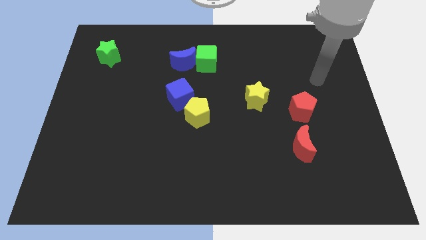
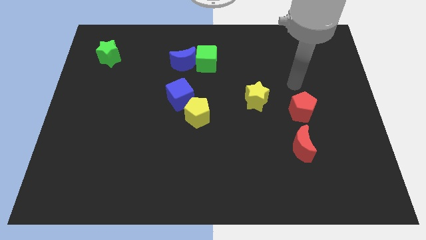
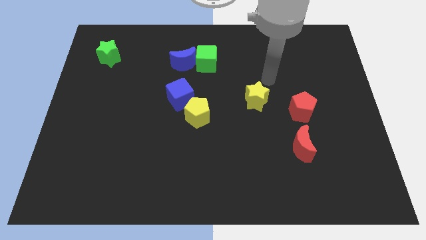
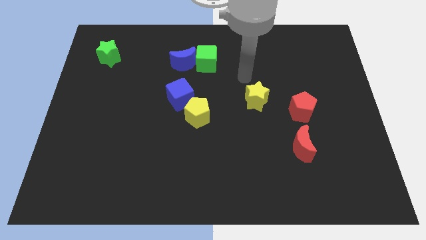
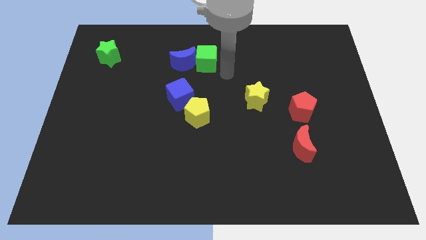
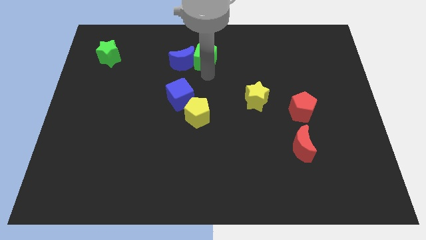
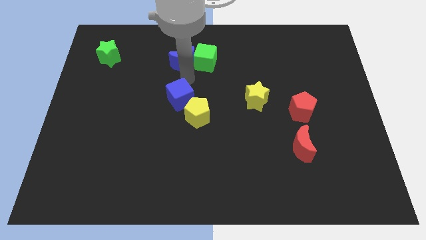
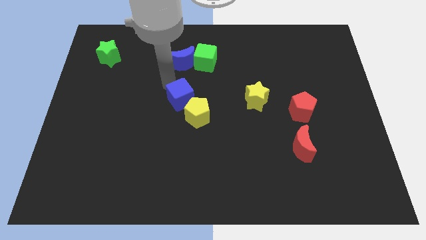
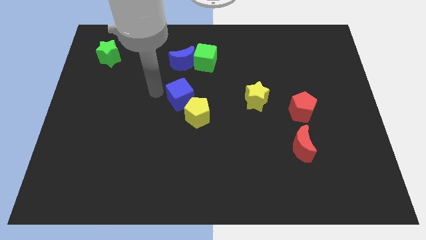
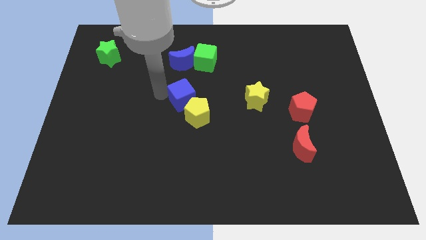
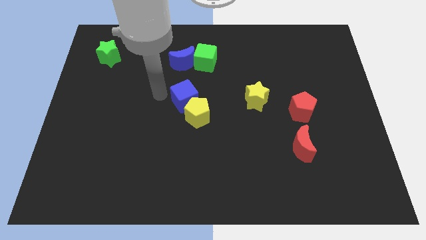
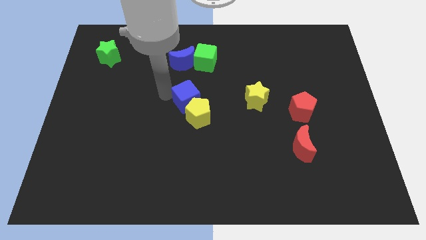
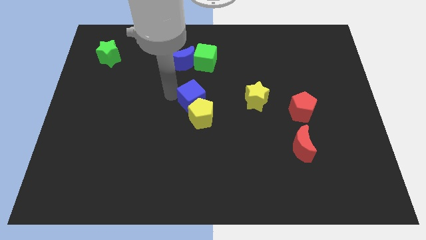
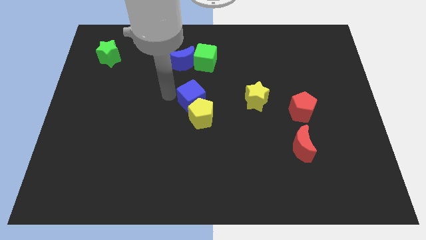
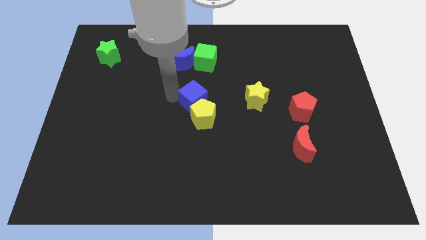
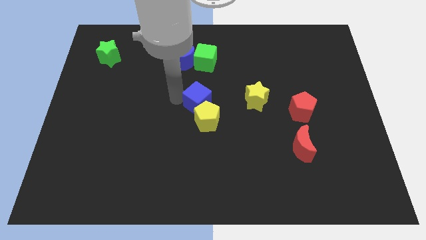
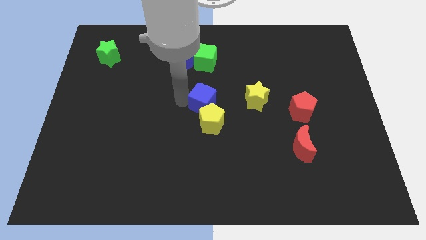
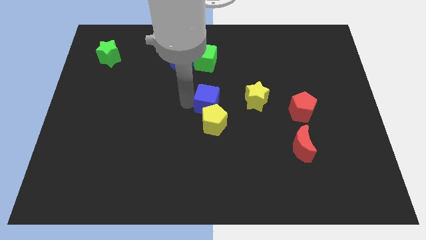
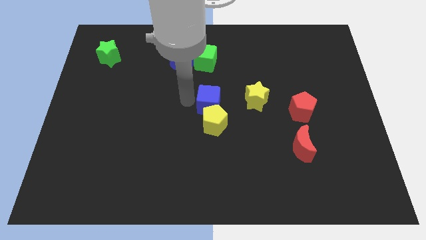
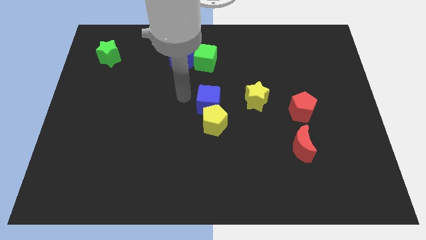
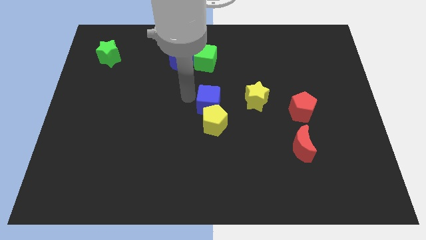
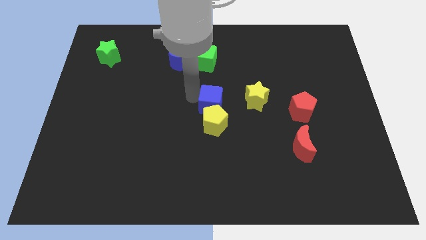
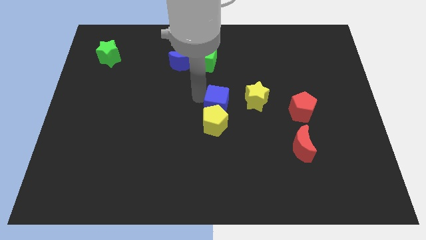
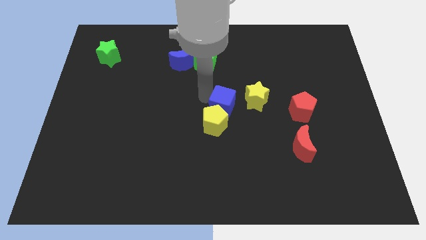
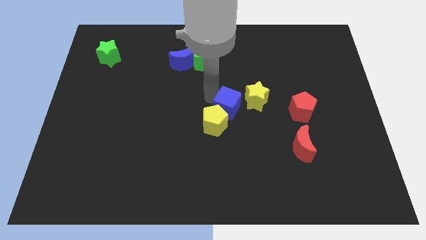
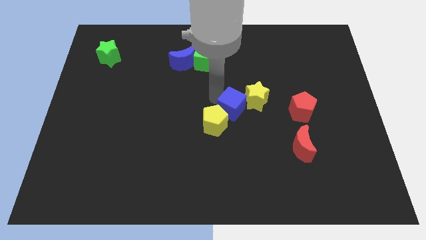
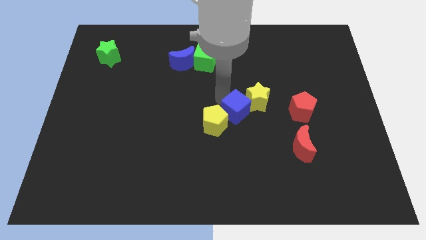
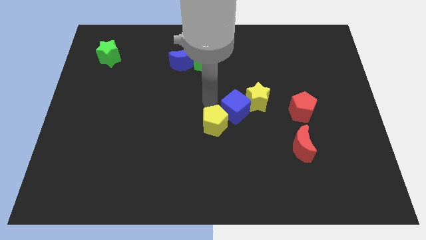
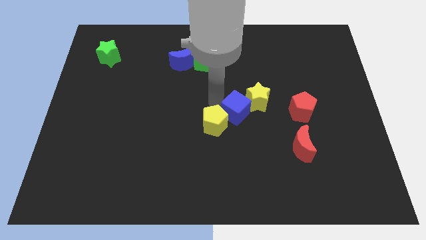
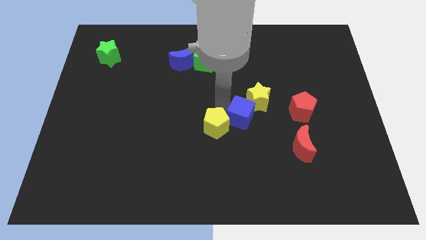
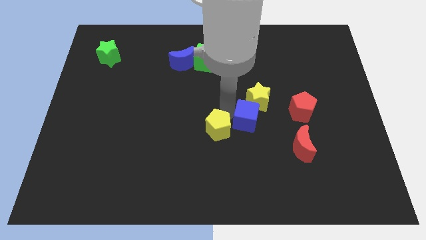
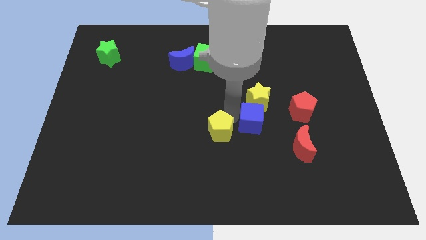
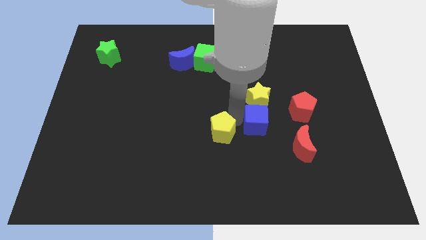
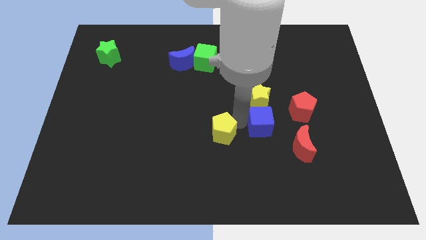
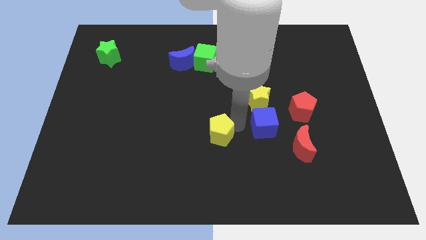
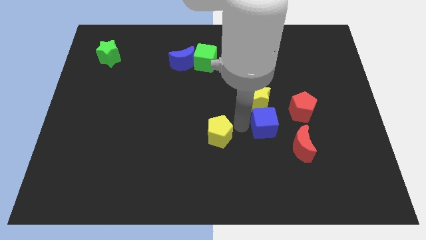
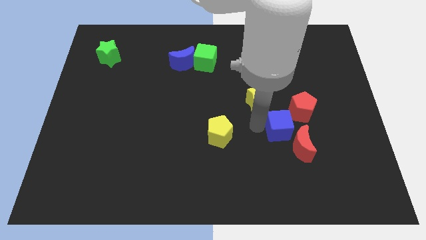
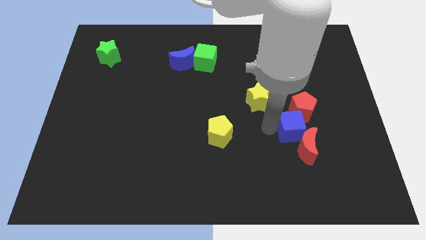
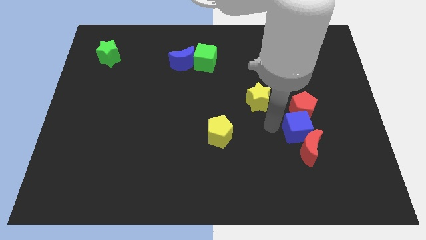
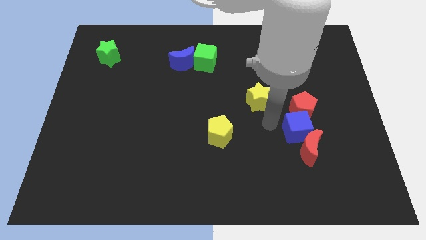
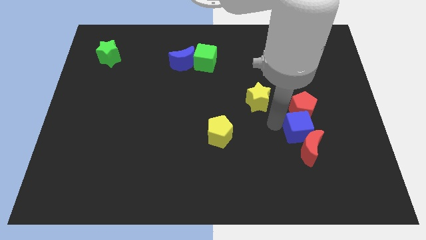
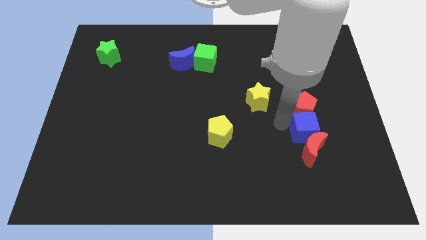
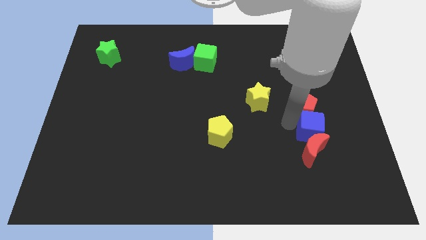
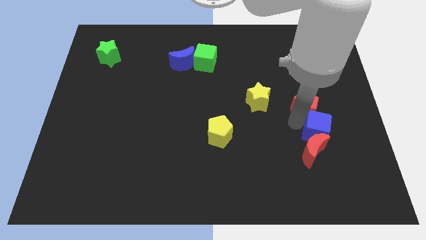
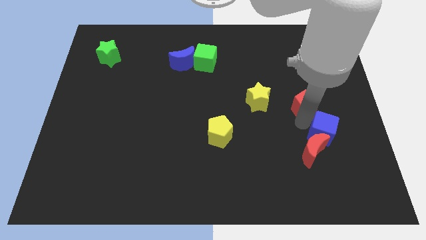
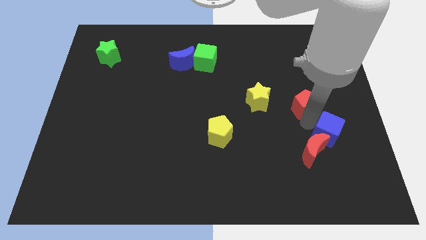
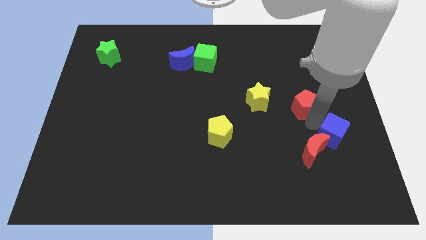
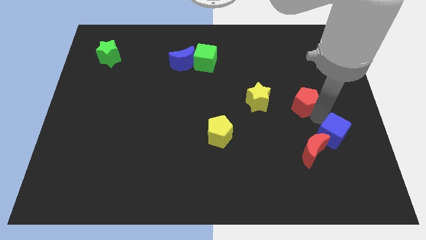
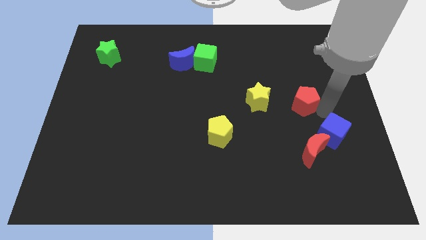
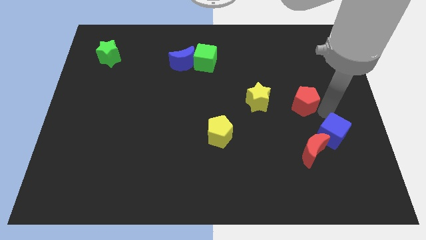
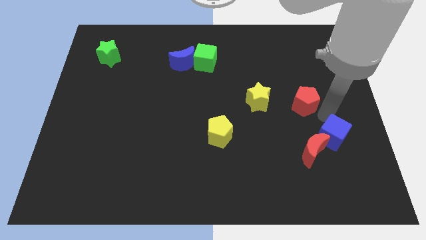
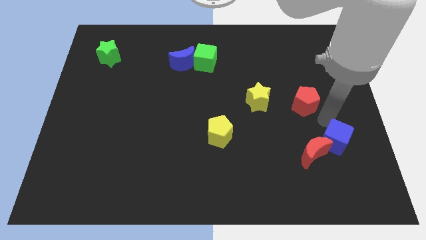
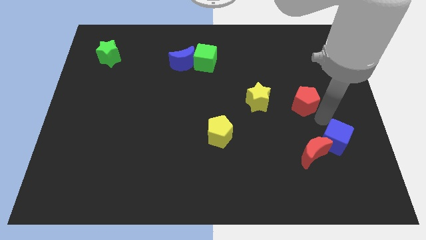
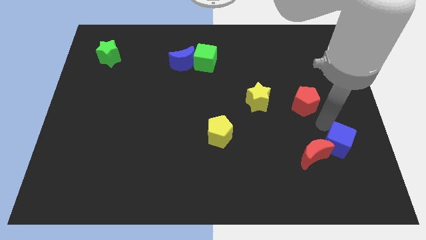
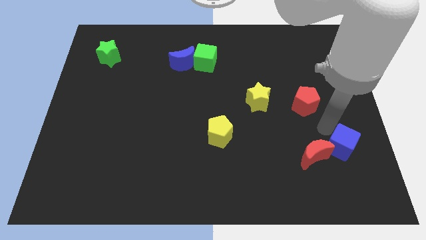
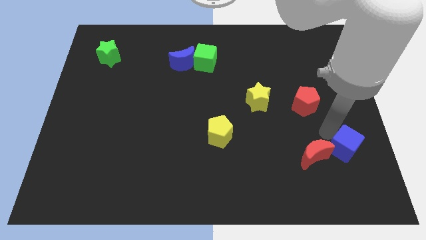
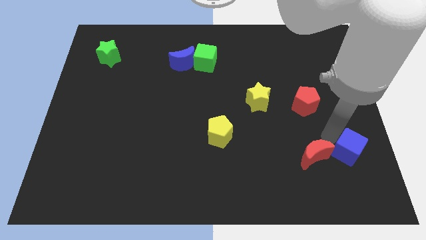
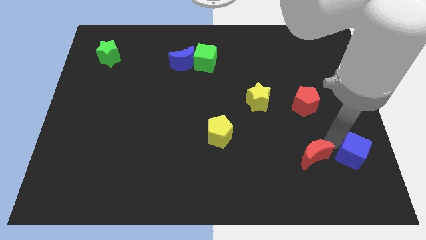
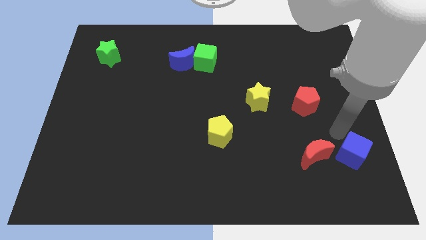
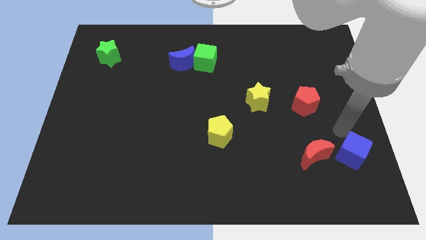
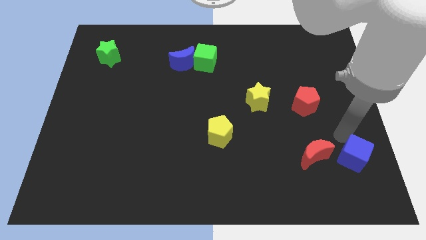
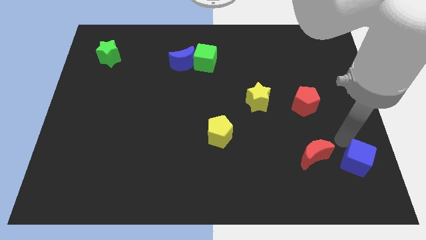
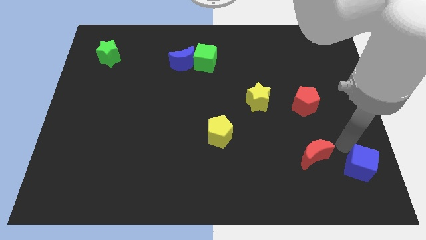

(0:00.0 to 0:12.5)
slide the blue cube to the bottom right corner
